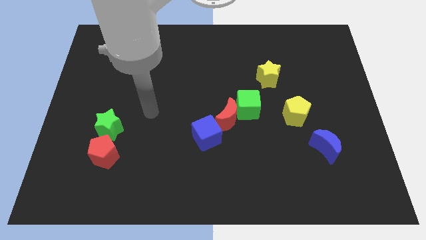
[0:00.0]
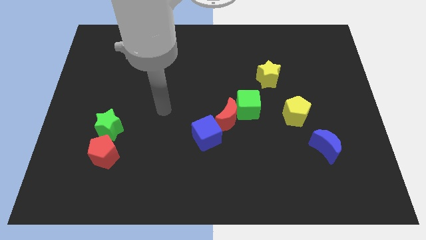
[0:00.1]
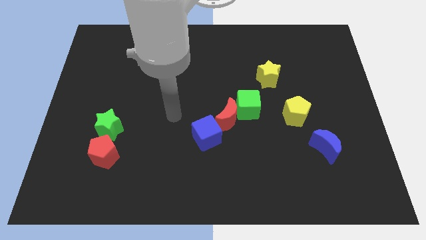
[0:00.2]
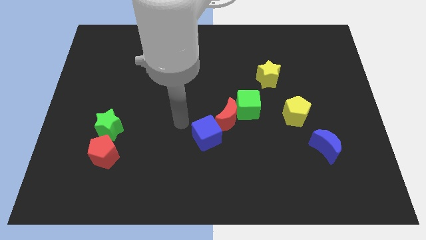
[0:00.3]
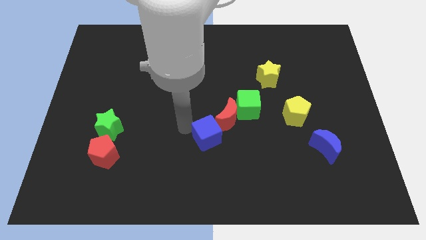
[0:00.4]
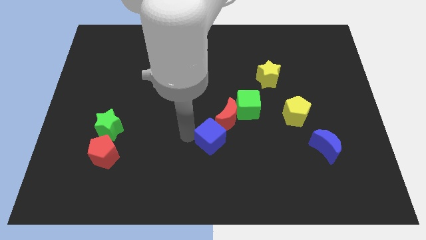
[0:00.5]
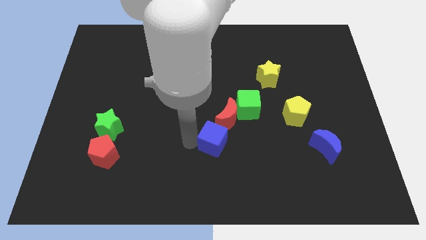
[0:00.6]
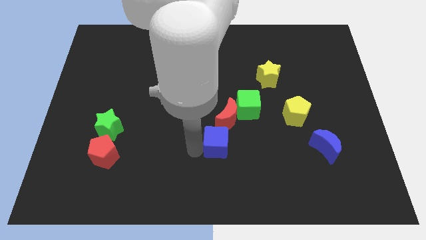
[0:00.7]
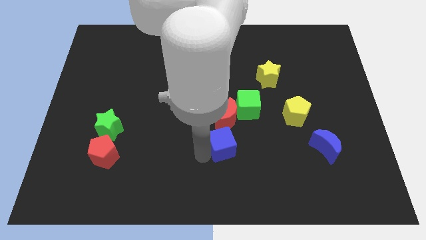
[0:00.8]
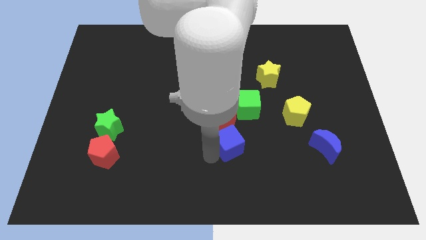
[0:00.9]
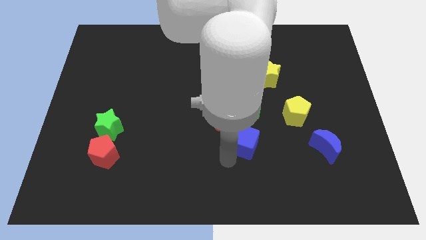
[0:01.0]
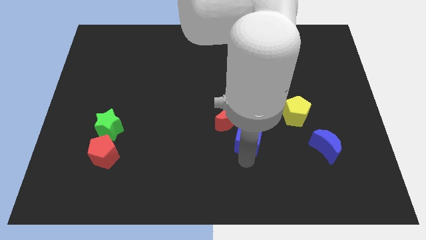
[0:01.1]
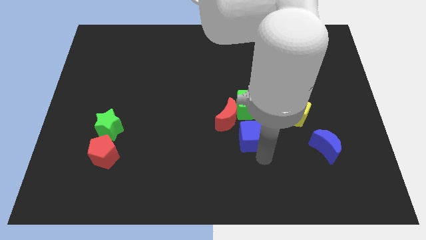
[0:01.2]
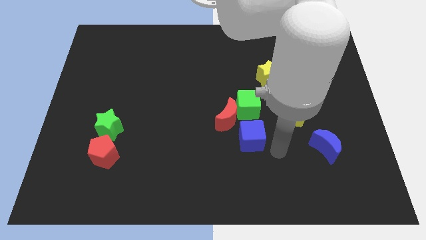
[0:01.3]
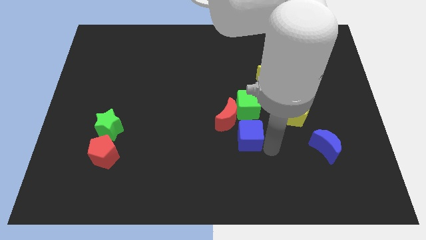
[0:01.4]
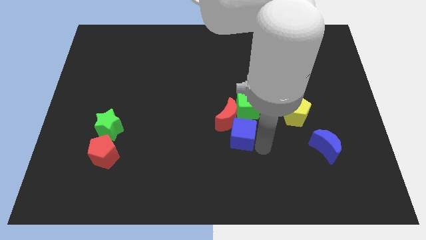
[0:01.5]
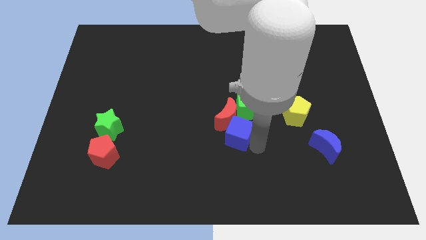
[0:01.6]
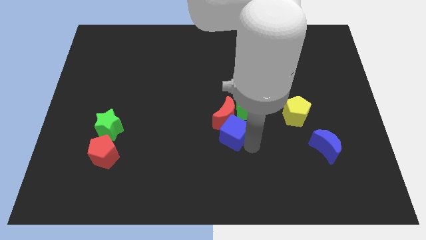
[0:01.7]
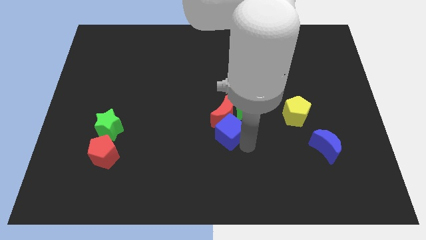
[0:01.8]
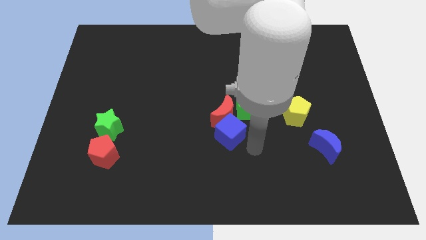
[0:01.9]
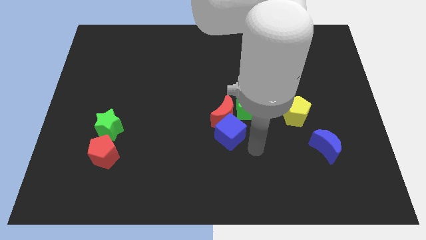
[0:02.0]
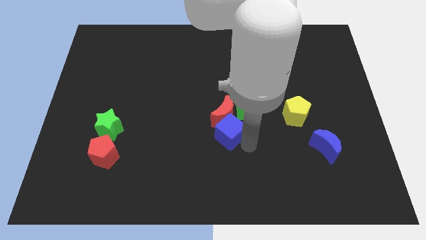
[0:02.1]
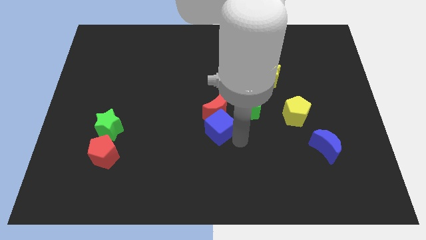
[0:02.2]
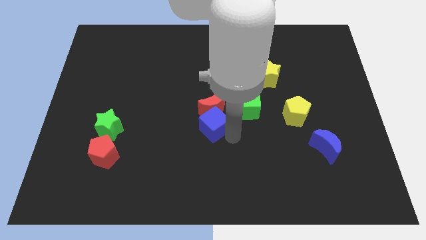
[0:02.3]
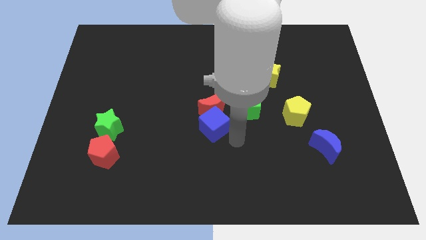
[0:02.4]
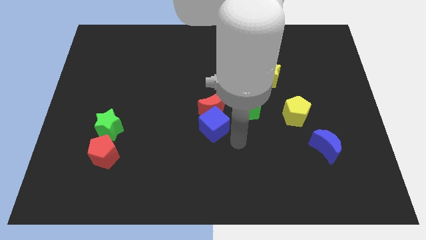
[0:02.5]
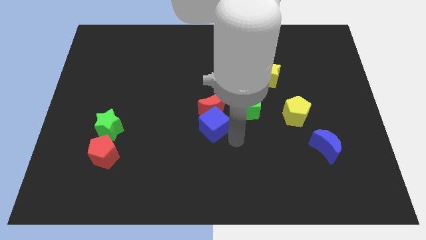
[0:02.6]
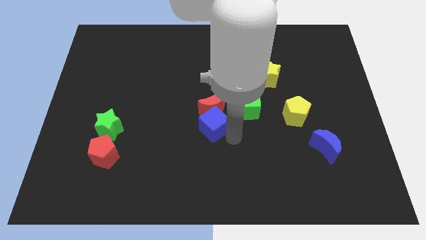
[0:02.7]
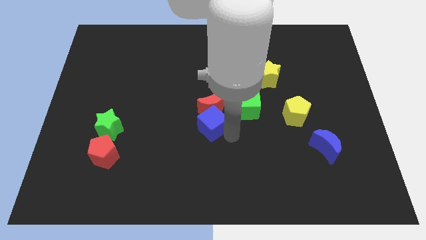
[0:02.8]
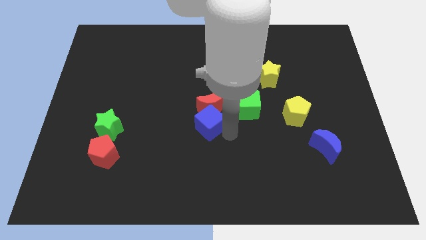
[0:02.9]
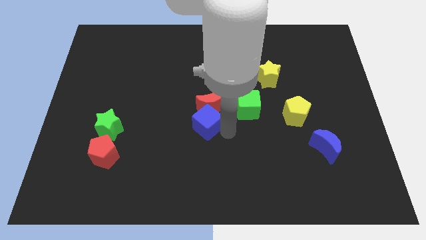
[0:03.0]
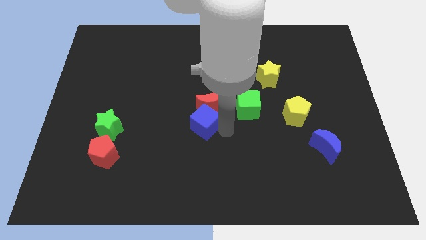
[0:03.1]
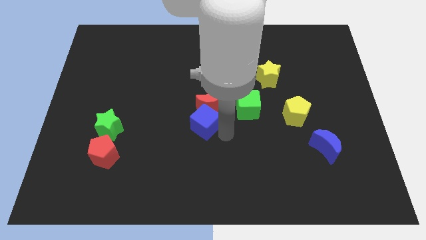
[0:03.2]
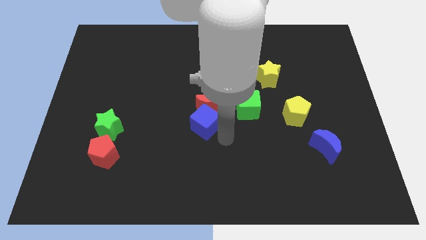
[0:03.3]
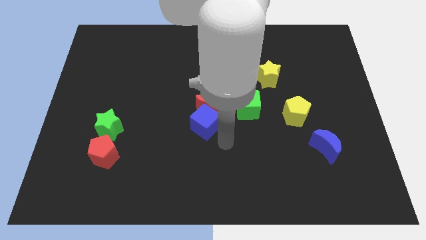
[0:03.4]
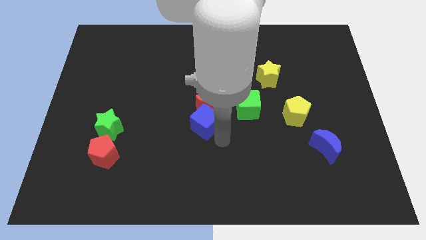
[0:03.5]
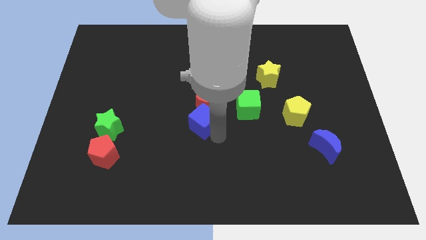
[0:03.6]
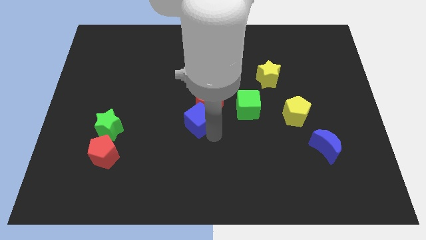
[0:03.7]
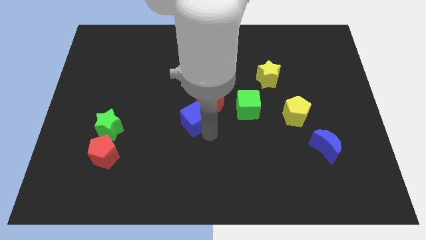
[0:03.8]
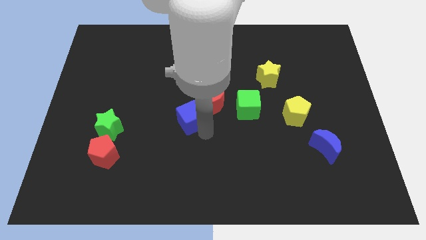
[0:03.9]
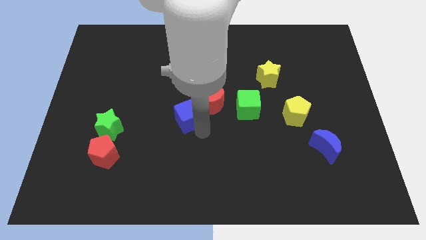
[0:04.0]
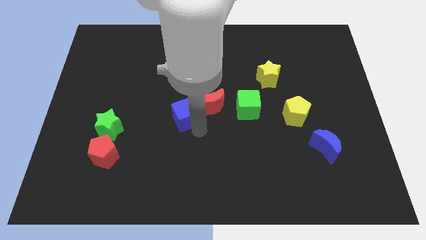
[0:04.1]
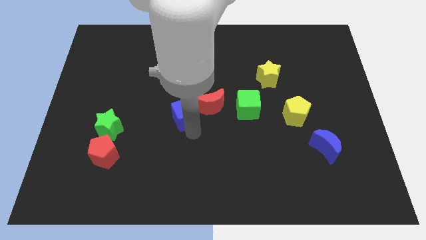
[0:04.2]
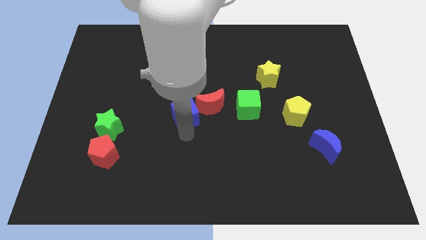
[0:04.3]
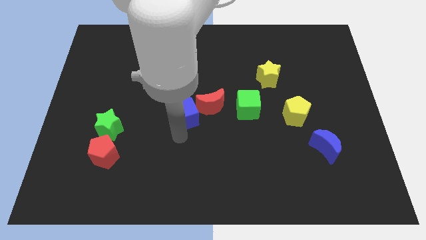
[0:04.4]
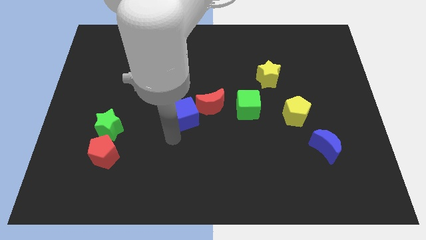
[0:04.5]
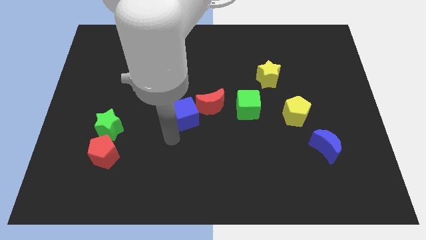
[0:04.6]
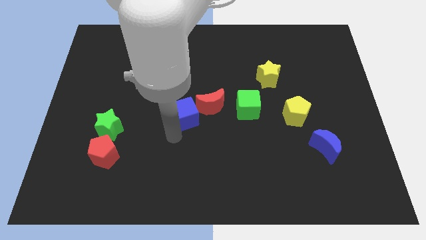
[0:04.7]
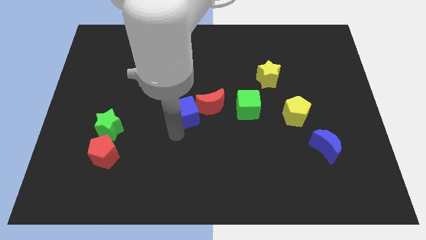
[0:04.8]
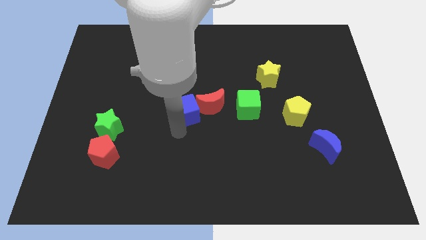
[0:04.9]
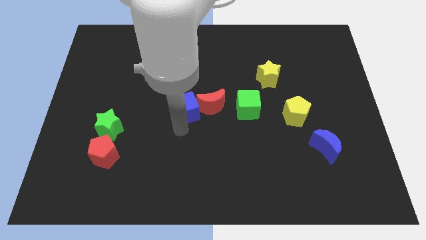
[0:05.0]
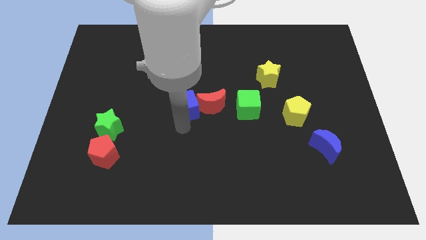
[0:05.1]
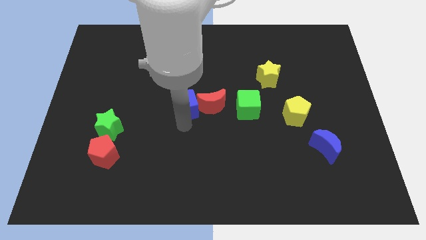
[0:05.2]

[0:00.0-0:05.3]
move the blue cube up somewhat

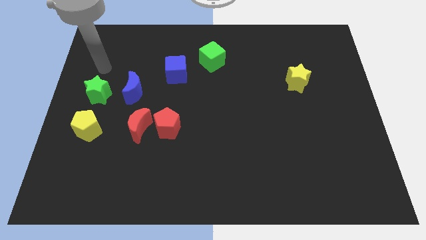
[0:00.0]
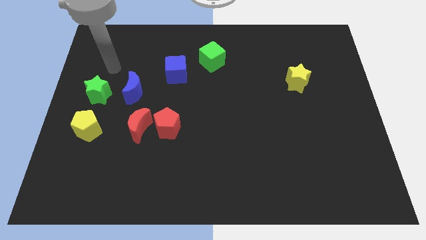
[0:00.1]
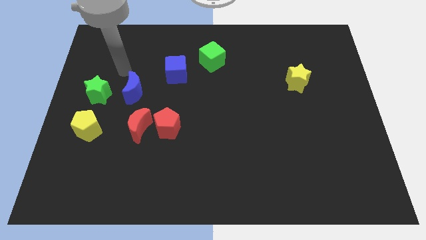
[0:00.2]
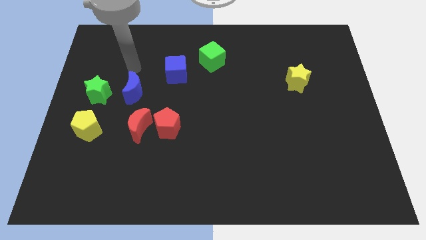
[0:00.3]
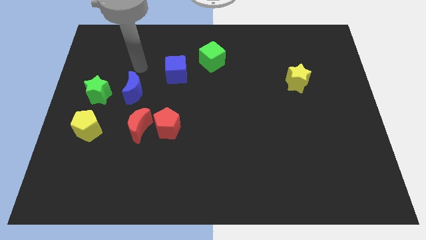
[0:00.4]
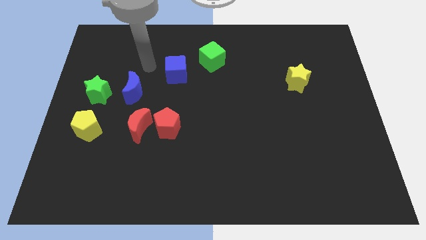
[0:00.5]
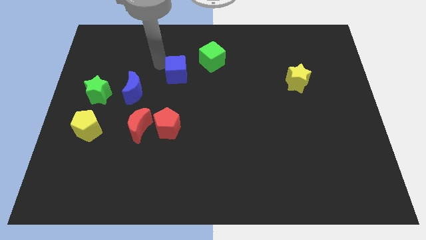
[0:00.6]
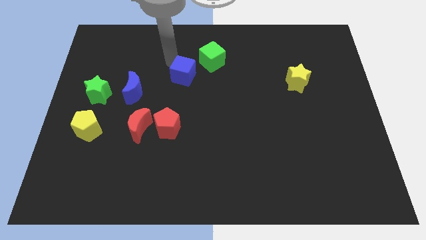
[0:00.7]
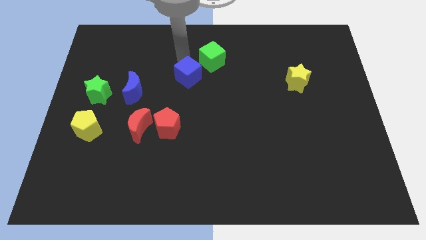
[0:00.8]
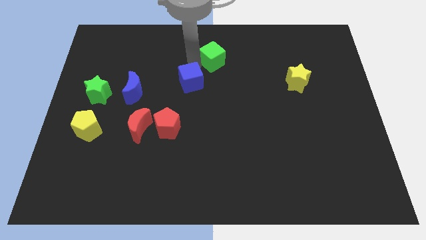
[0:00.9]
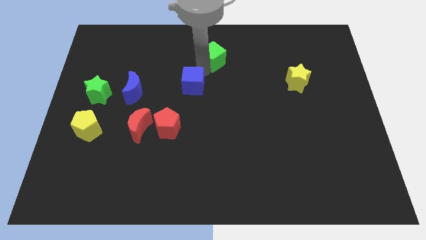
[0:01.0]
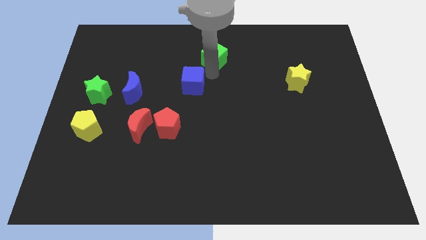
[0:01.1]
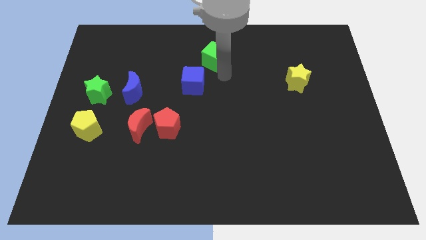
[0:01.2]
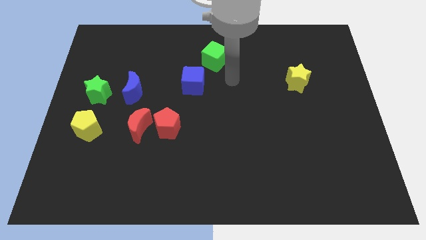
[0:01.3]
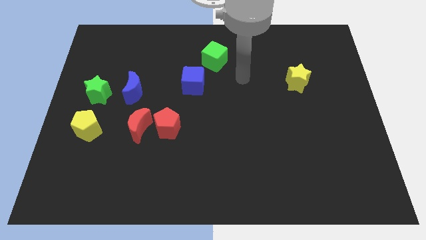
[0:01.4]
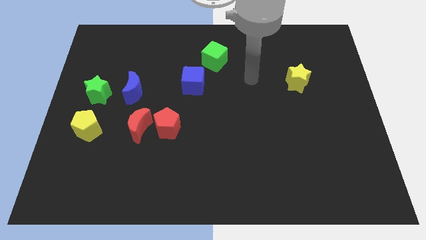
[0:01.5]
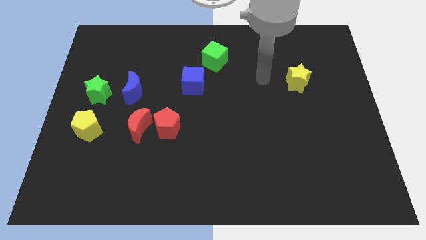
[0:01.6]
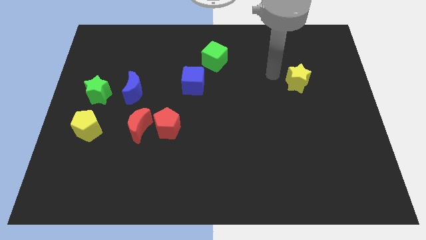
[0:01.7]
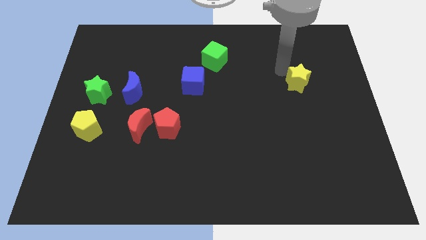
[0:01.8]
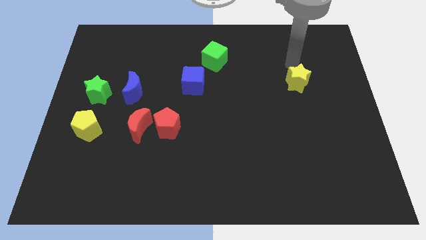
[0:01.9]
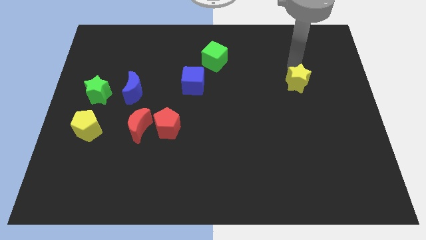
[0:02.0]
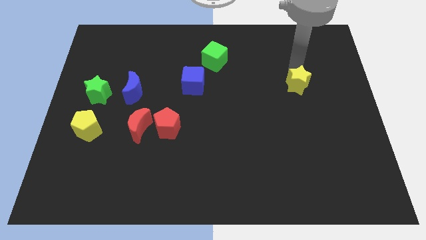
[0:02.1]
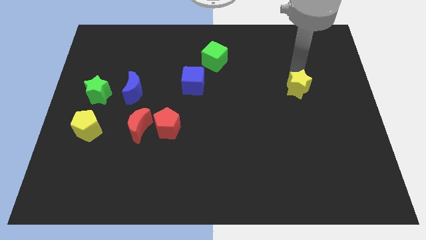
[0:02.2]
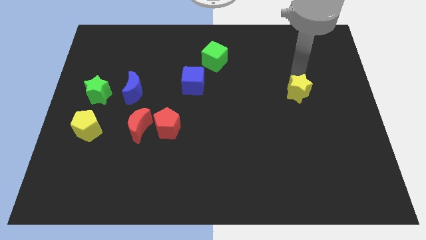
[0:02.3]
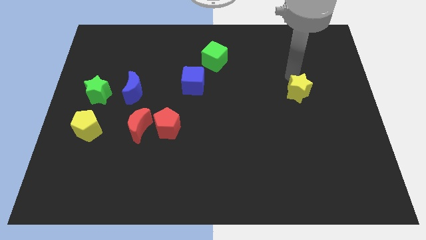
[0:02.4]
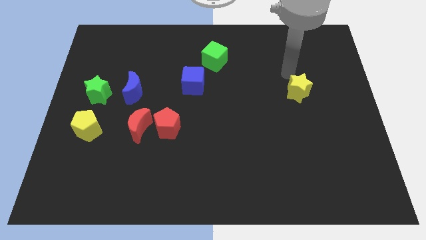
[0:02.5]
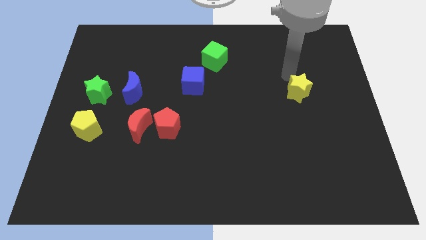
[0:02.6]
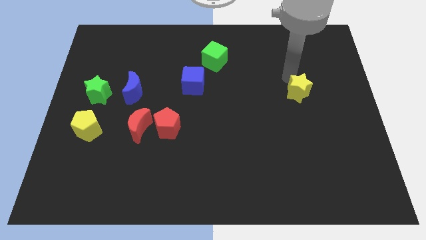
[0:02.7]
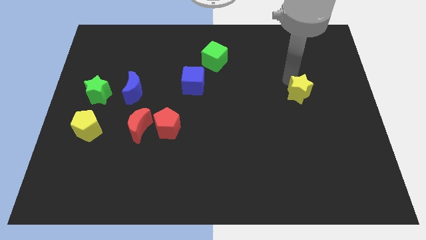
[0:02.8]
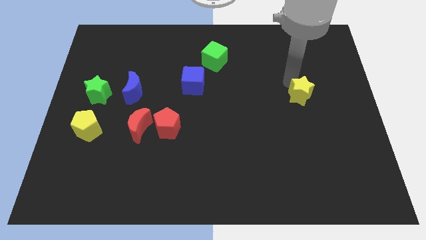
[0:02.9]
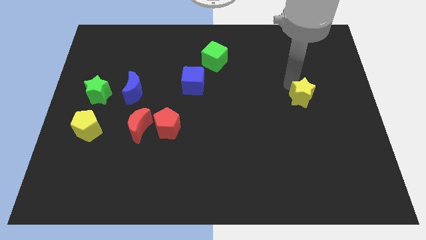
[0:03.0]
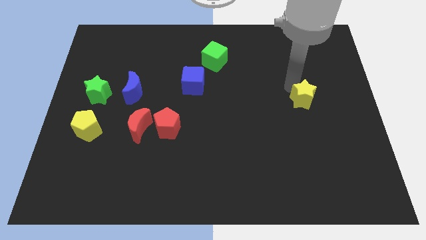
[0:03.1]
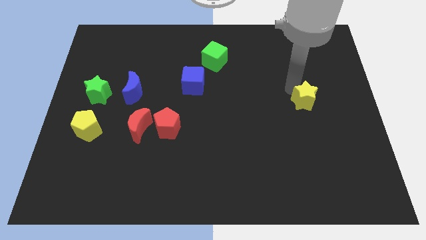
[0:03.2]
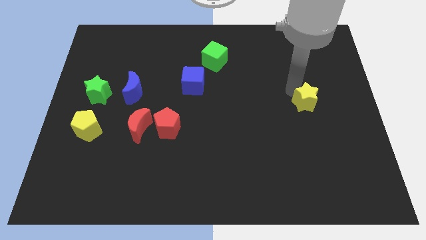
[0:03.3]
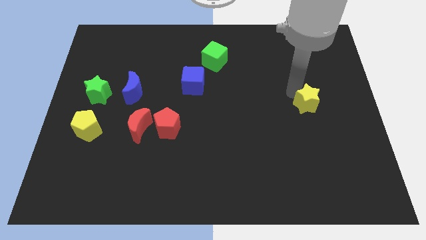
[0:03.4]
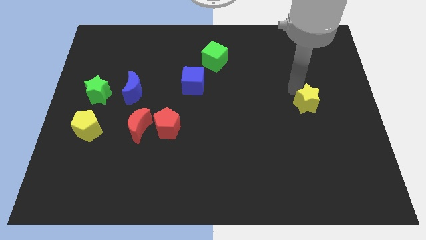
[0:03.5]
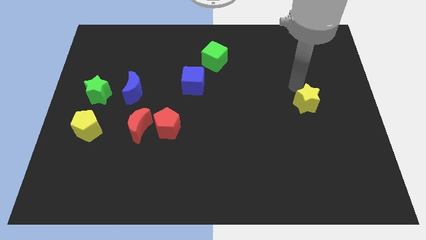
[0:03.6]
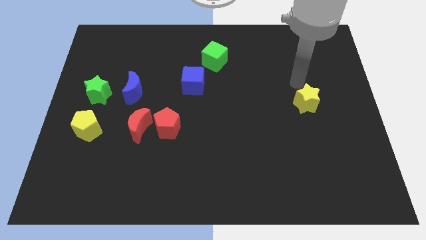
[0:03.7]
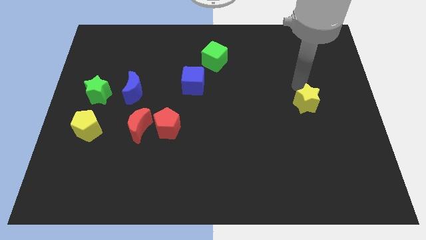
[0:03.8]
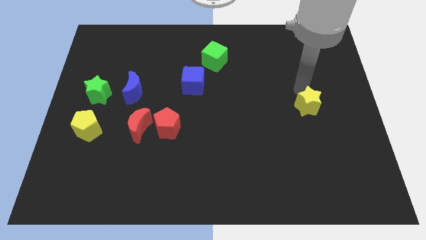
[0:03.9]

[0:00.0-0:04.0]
push the yellow star downwards a bit
